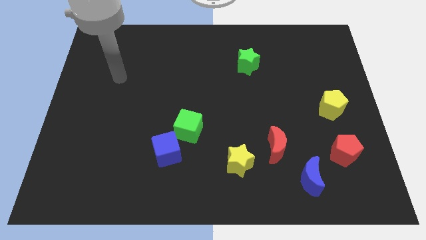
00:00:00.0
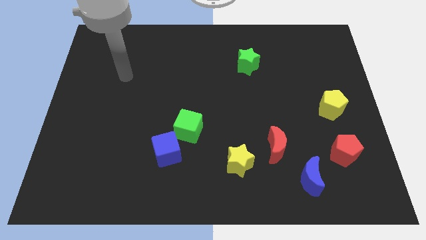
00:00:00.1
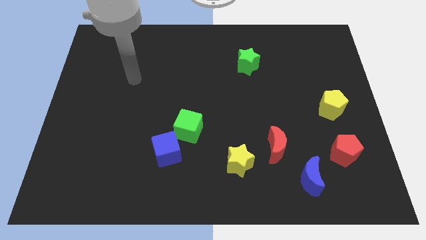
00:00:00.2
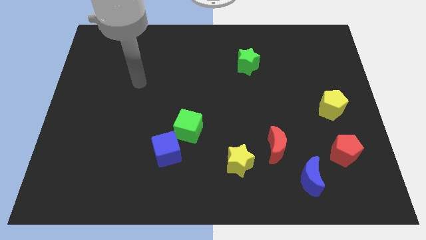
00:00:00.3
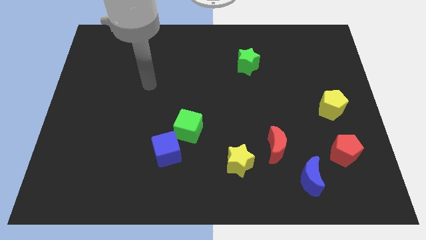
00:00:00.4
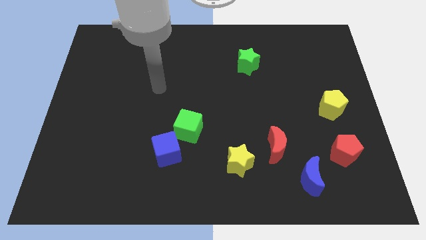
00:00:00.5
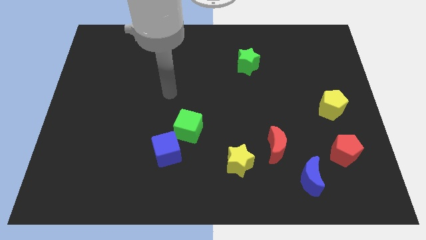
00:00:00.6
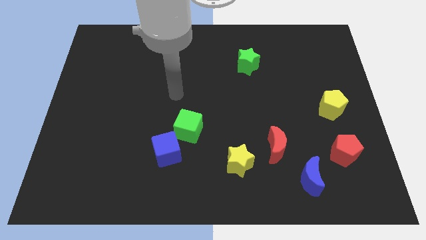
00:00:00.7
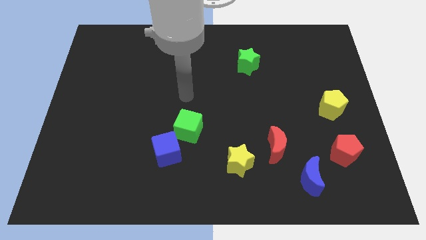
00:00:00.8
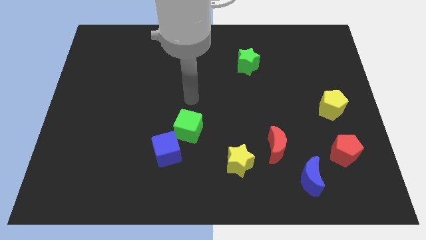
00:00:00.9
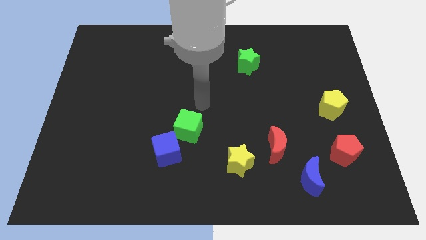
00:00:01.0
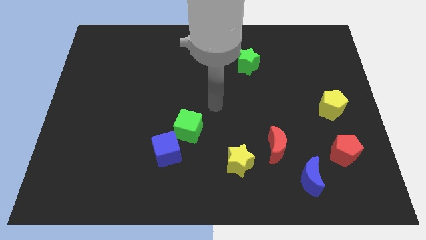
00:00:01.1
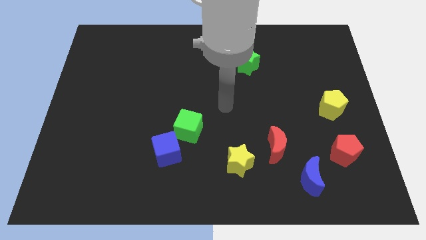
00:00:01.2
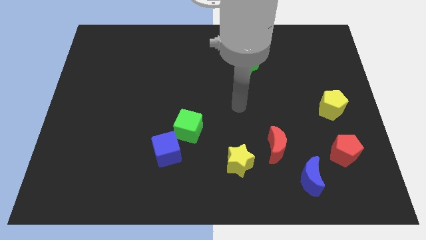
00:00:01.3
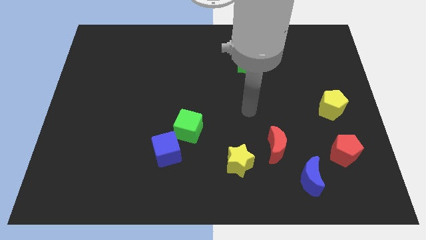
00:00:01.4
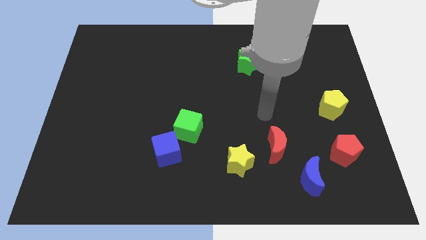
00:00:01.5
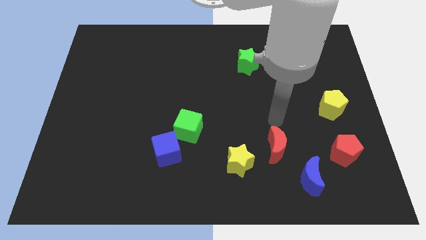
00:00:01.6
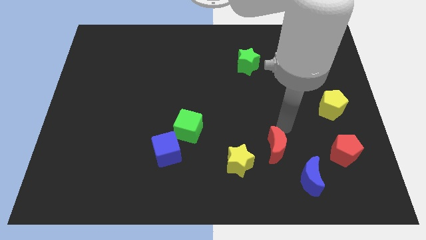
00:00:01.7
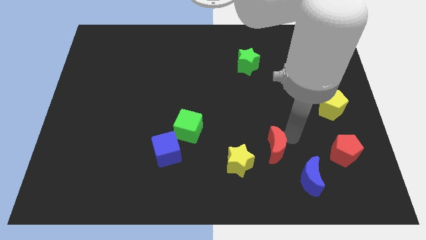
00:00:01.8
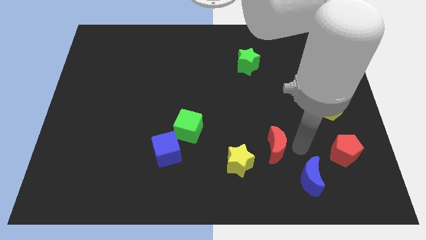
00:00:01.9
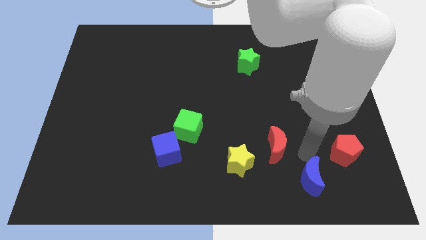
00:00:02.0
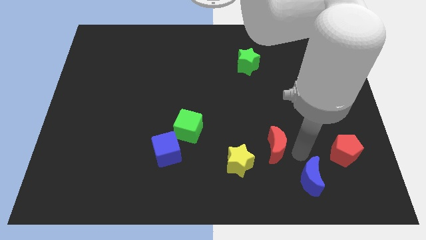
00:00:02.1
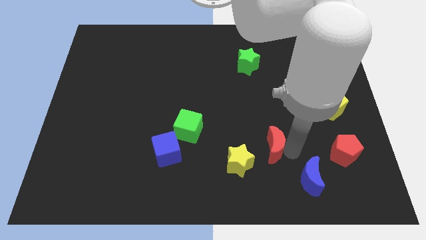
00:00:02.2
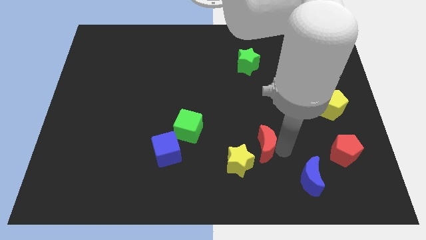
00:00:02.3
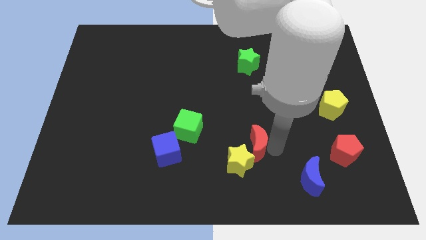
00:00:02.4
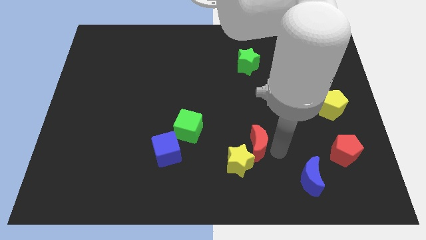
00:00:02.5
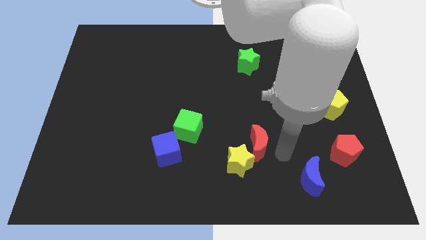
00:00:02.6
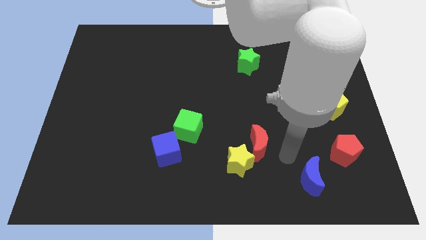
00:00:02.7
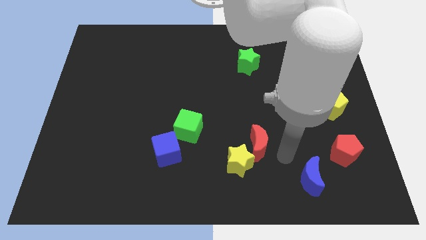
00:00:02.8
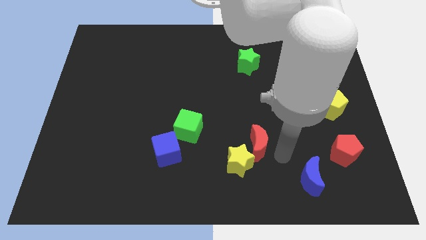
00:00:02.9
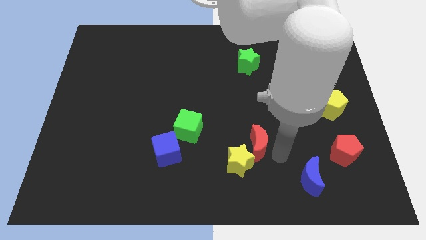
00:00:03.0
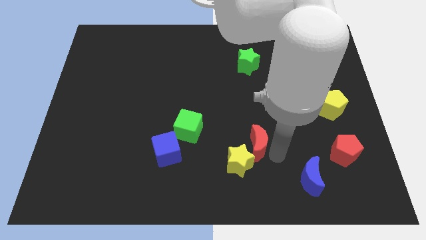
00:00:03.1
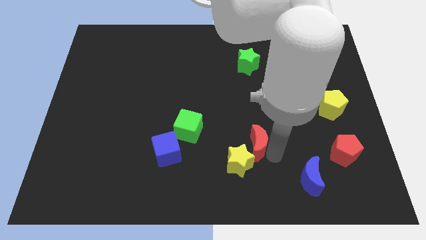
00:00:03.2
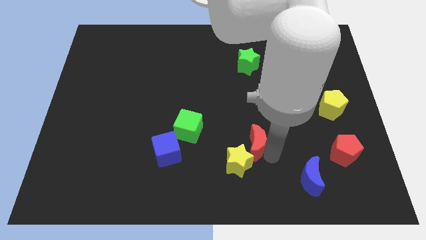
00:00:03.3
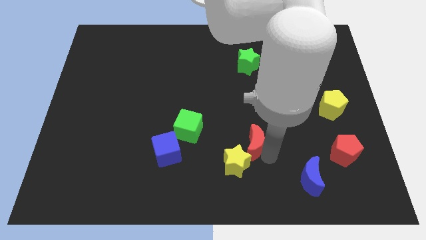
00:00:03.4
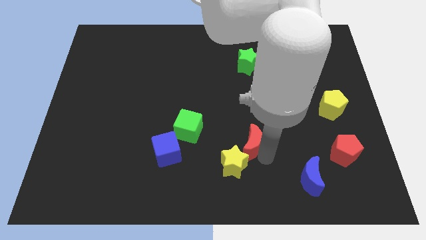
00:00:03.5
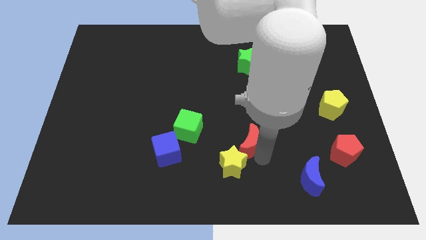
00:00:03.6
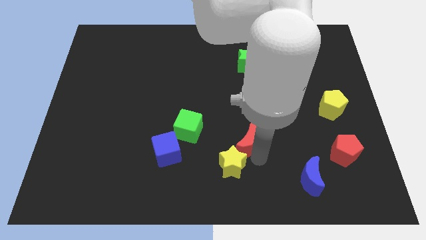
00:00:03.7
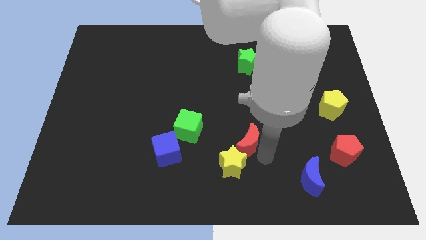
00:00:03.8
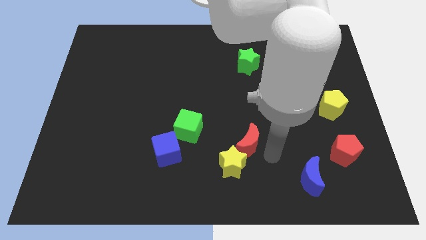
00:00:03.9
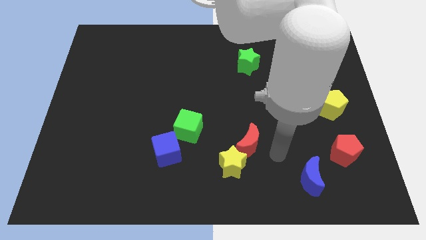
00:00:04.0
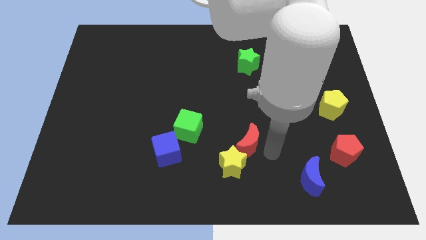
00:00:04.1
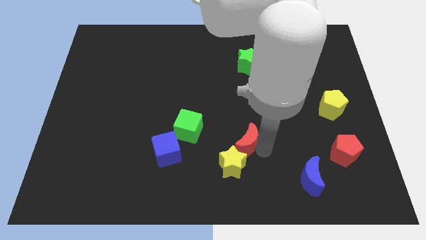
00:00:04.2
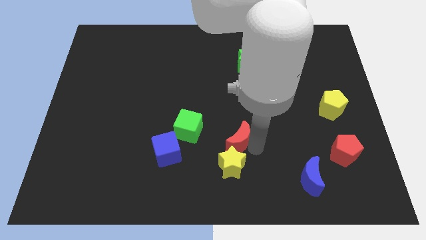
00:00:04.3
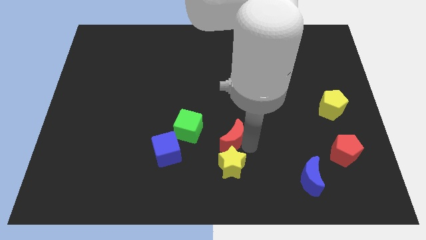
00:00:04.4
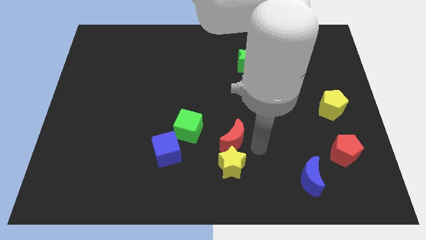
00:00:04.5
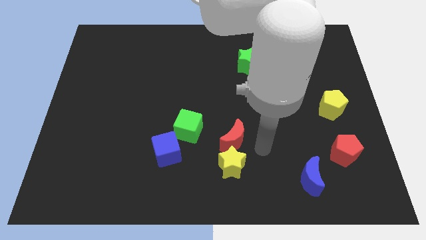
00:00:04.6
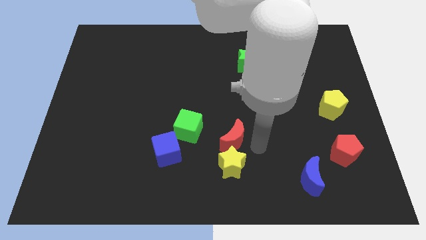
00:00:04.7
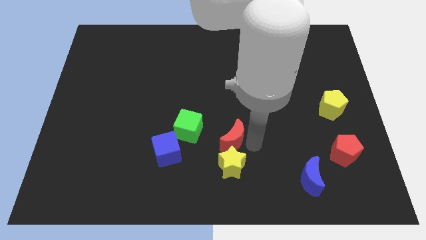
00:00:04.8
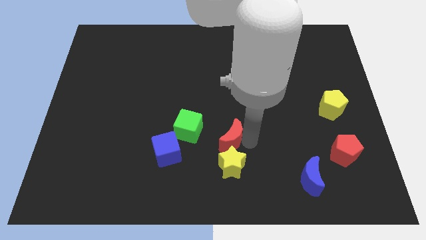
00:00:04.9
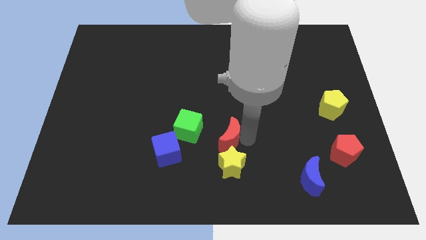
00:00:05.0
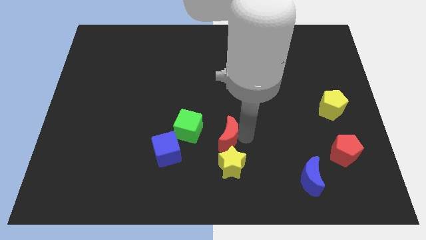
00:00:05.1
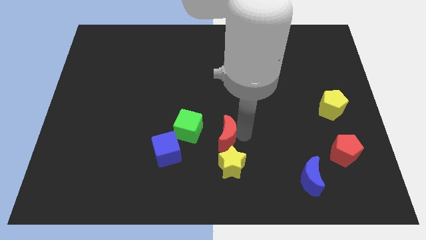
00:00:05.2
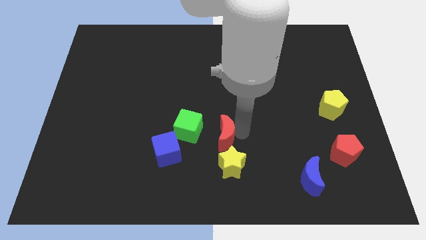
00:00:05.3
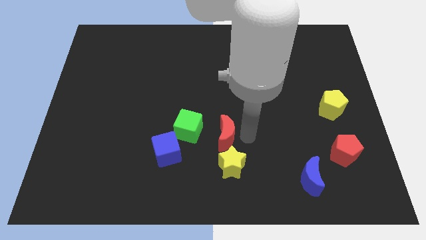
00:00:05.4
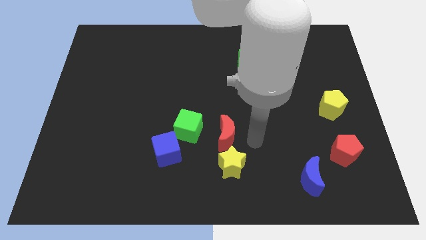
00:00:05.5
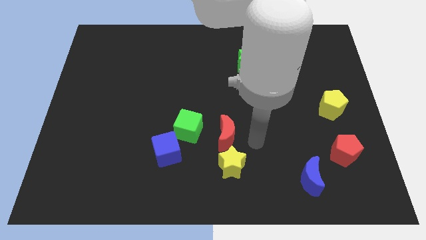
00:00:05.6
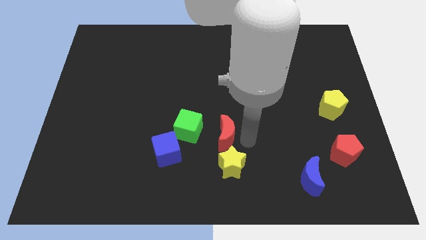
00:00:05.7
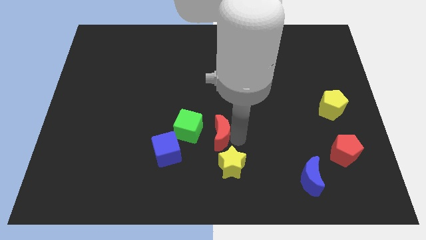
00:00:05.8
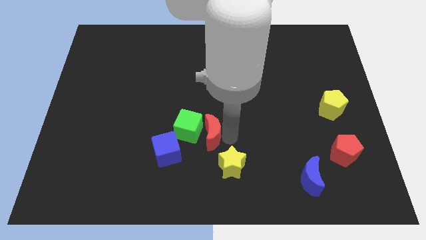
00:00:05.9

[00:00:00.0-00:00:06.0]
slide the red moon close to the green cube

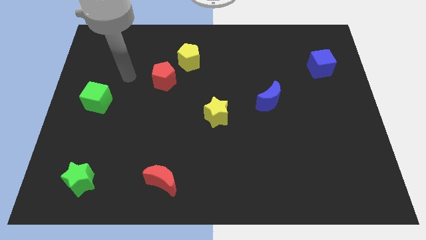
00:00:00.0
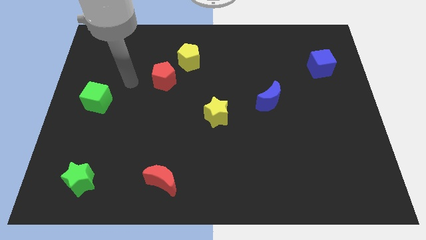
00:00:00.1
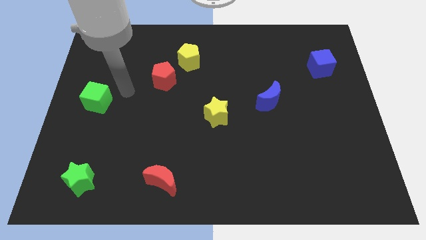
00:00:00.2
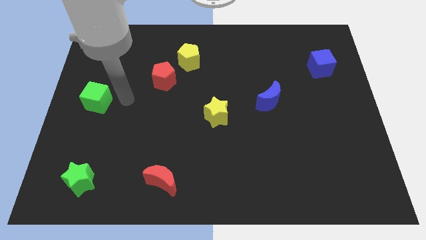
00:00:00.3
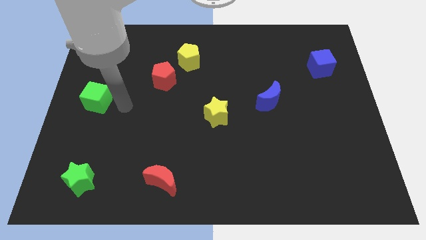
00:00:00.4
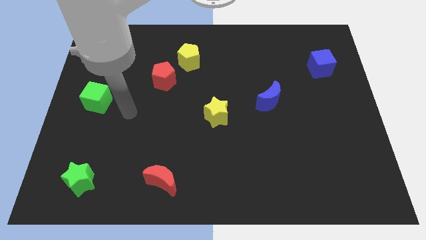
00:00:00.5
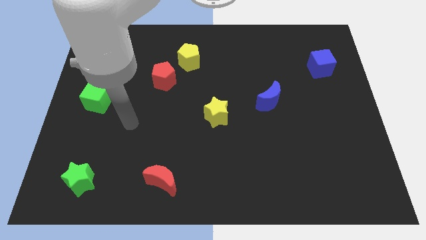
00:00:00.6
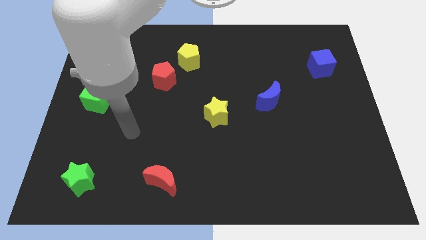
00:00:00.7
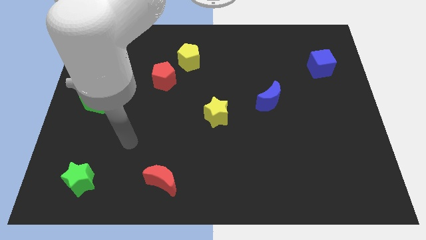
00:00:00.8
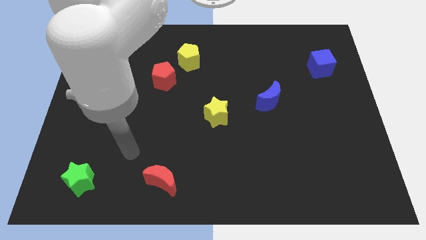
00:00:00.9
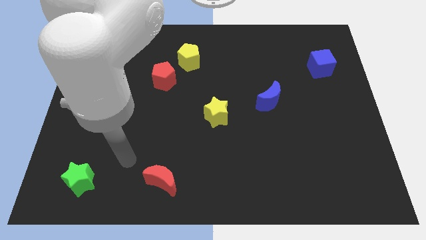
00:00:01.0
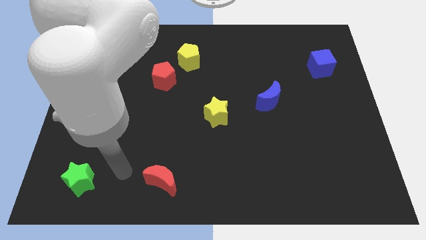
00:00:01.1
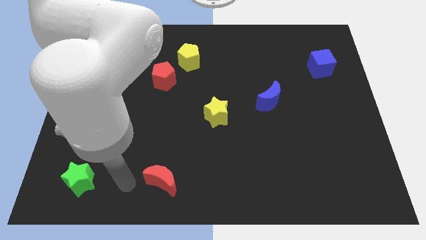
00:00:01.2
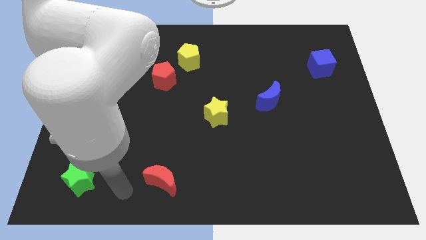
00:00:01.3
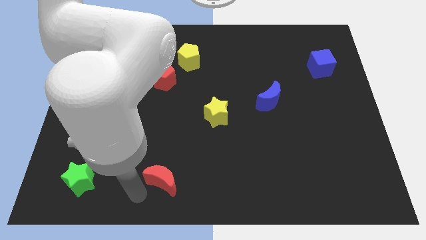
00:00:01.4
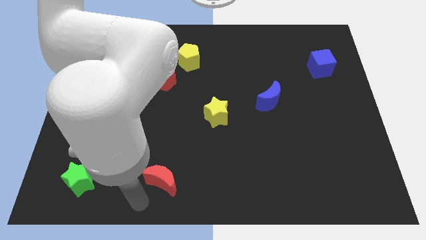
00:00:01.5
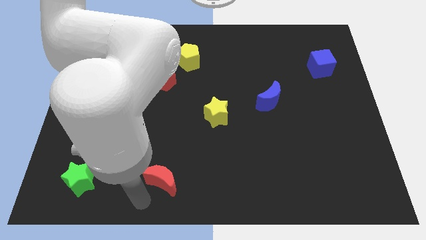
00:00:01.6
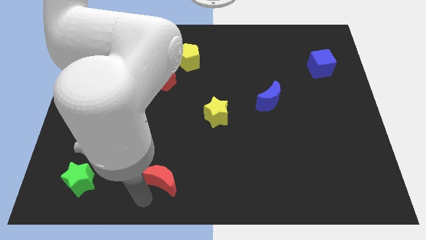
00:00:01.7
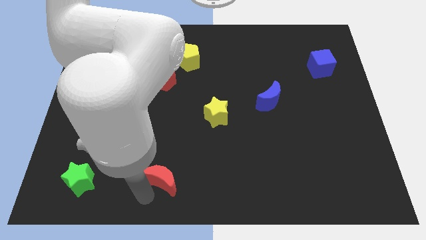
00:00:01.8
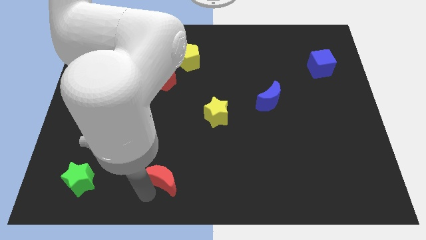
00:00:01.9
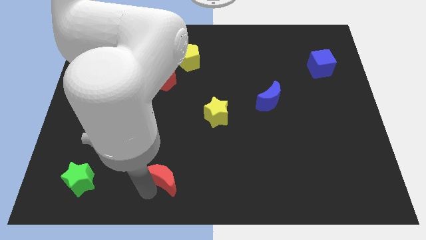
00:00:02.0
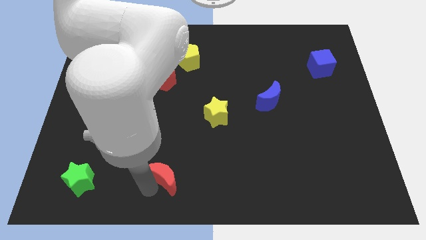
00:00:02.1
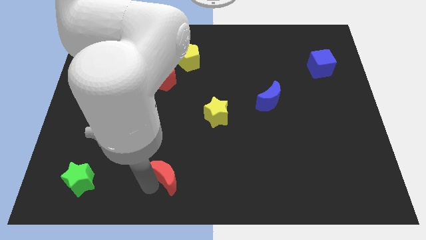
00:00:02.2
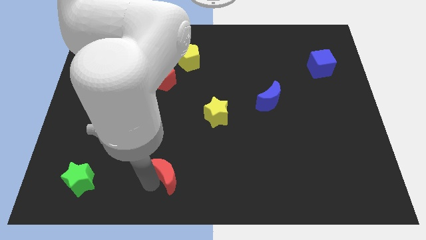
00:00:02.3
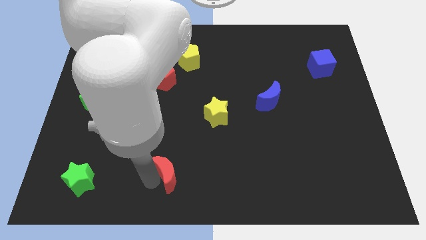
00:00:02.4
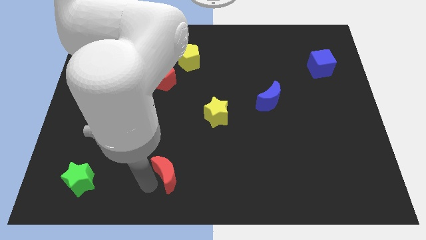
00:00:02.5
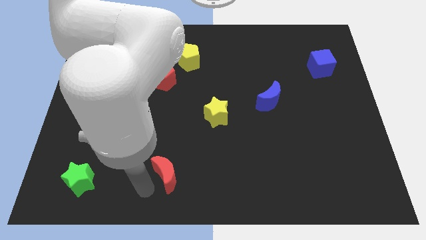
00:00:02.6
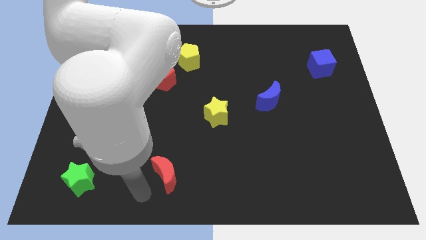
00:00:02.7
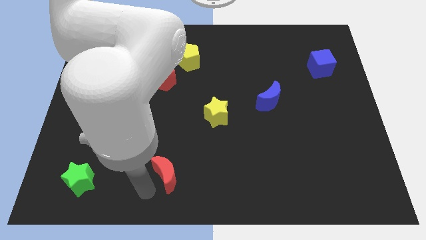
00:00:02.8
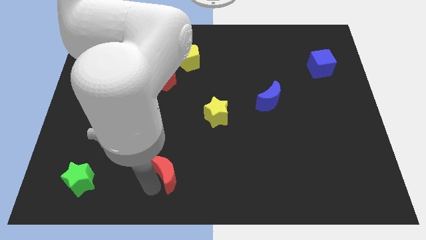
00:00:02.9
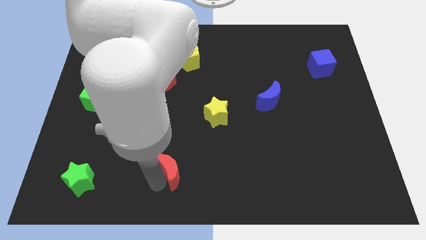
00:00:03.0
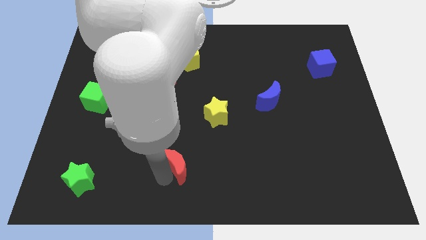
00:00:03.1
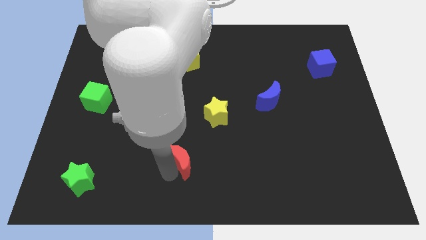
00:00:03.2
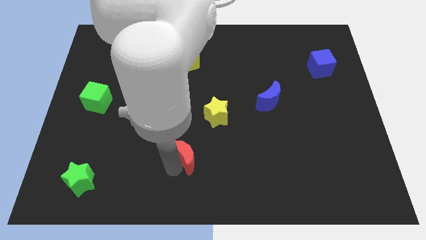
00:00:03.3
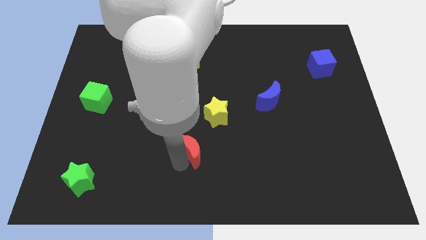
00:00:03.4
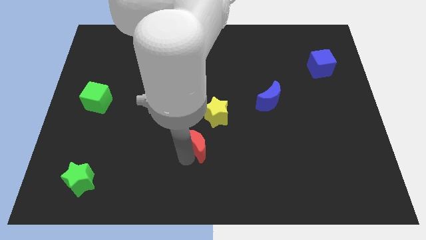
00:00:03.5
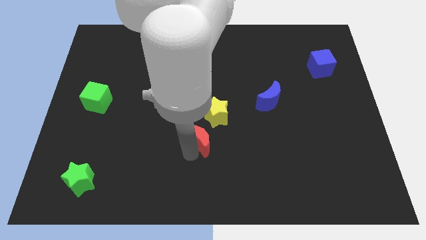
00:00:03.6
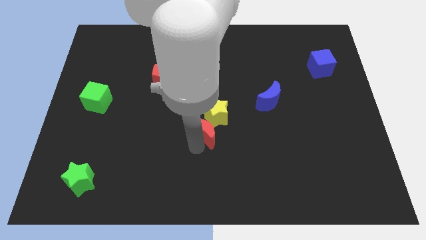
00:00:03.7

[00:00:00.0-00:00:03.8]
slide the red moon close to the yellow star
